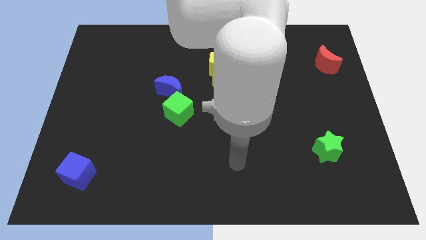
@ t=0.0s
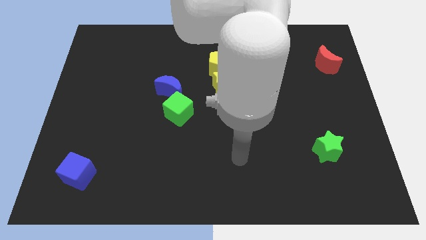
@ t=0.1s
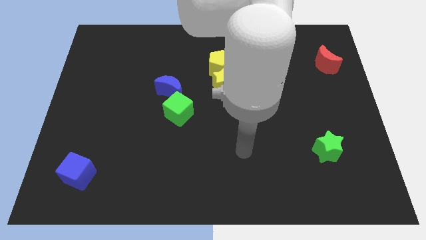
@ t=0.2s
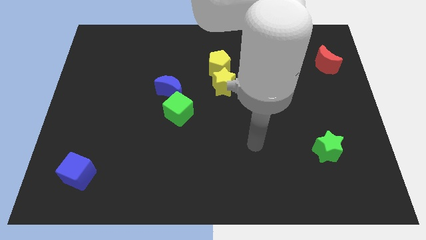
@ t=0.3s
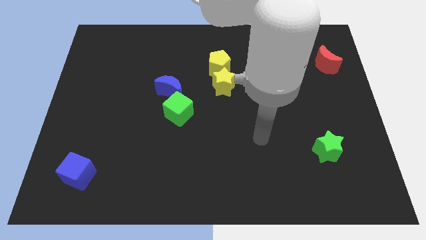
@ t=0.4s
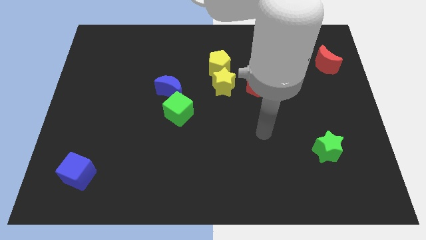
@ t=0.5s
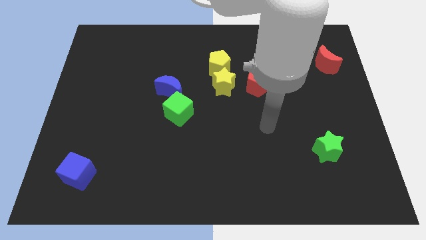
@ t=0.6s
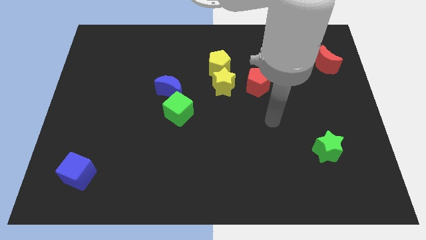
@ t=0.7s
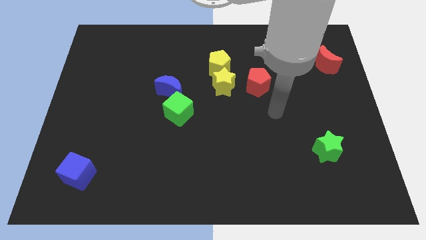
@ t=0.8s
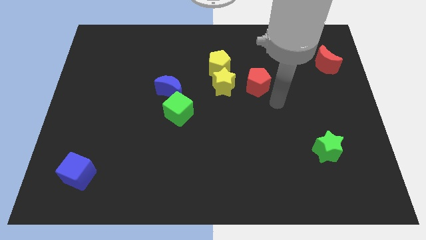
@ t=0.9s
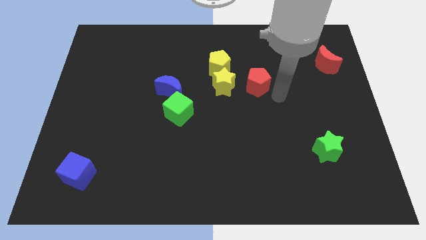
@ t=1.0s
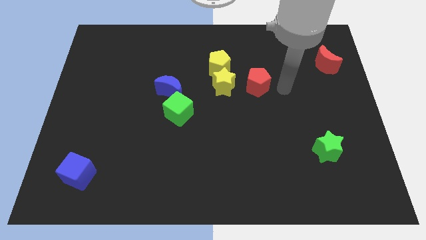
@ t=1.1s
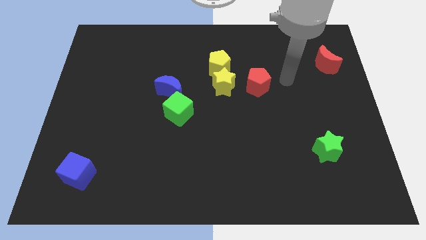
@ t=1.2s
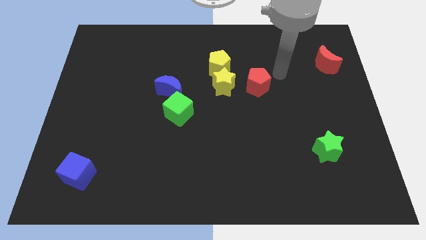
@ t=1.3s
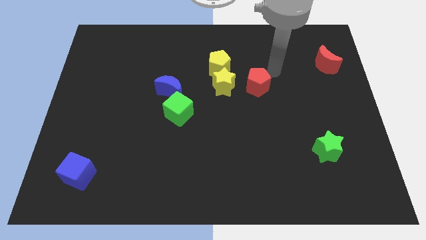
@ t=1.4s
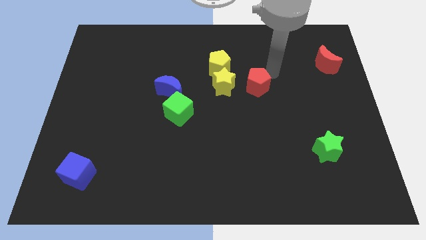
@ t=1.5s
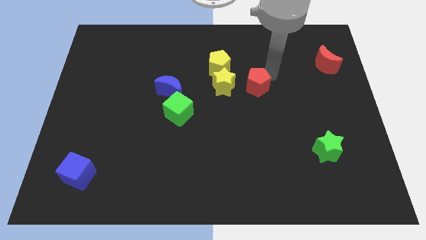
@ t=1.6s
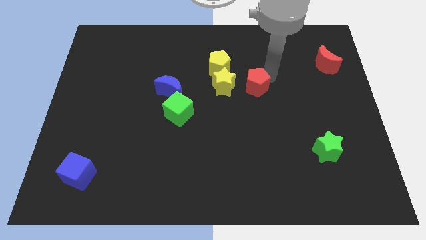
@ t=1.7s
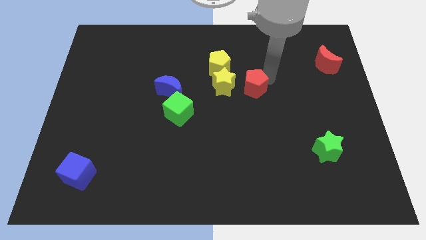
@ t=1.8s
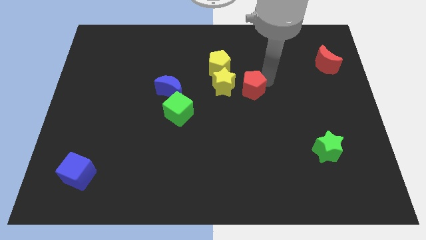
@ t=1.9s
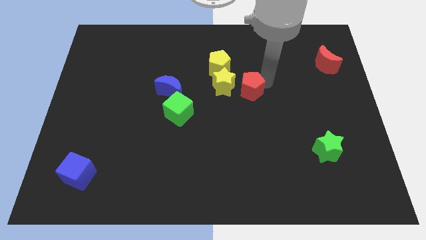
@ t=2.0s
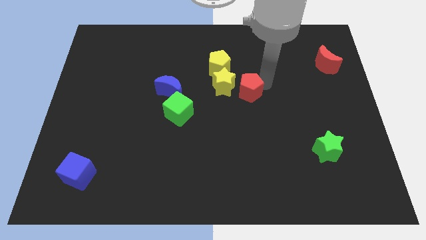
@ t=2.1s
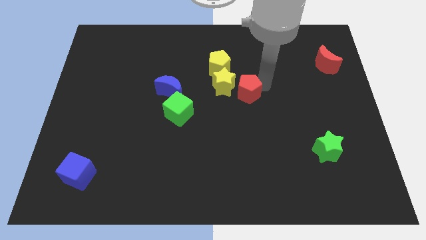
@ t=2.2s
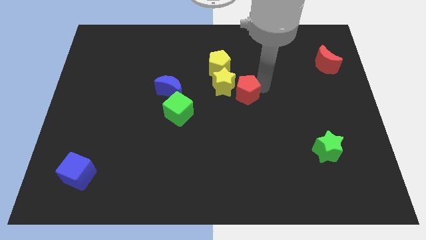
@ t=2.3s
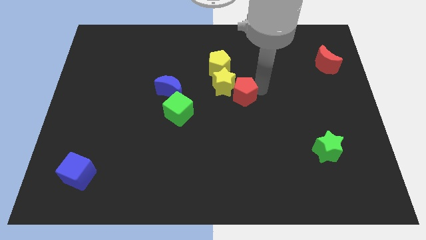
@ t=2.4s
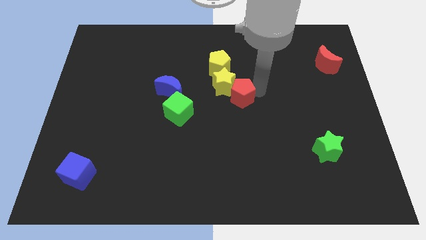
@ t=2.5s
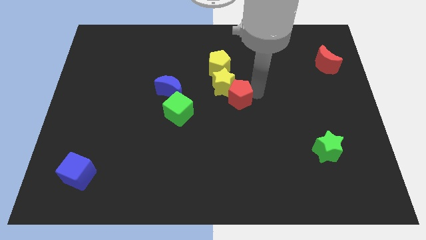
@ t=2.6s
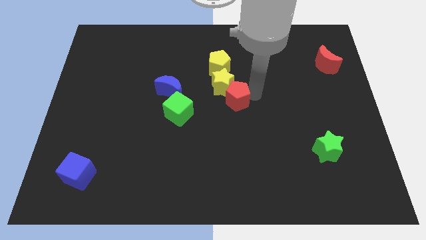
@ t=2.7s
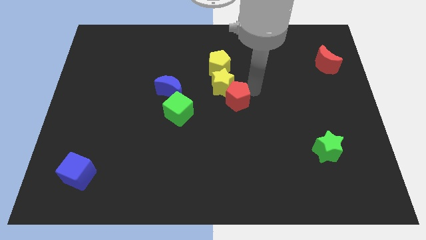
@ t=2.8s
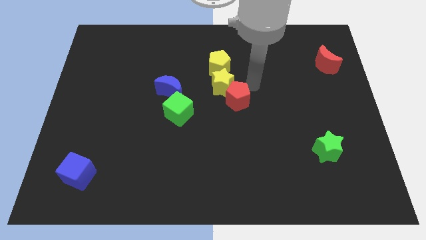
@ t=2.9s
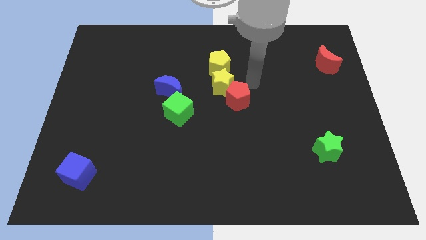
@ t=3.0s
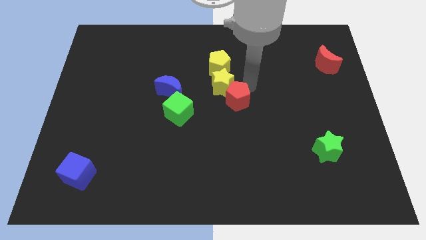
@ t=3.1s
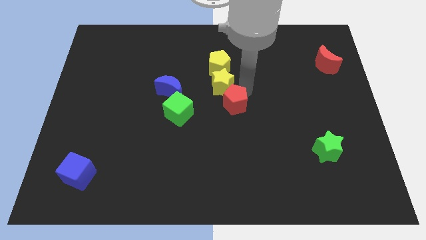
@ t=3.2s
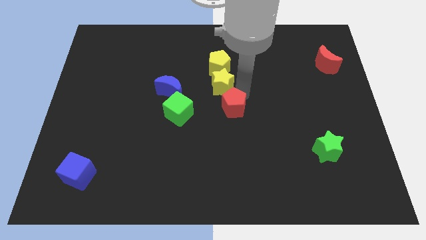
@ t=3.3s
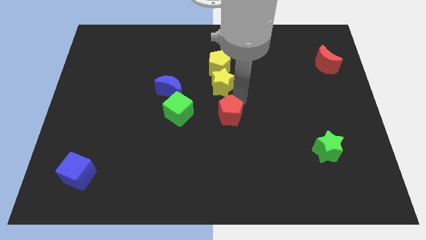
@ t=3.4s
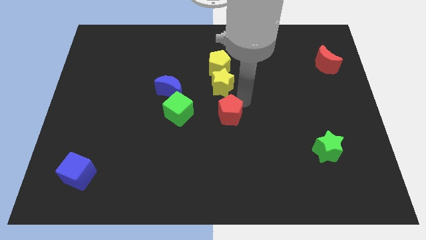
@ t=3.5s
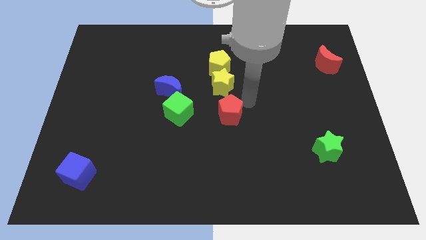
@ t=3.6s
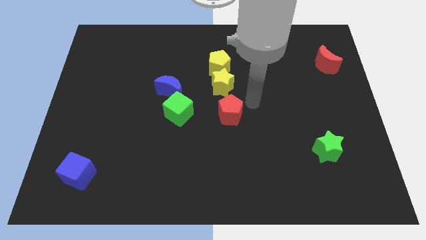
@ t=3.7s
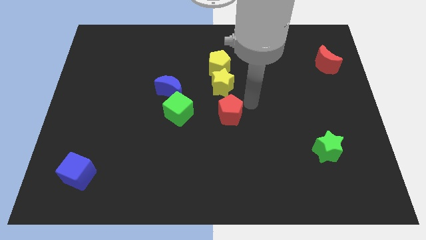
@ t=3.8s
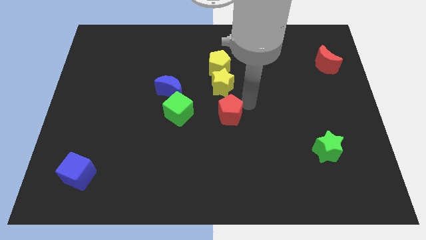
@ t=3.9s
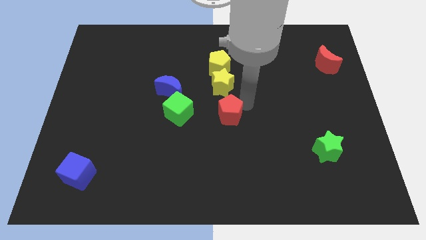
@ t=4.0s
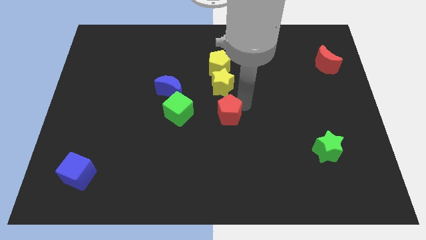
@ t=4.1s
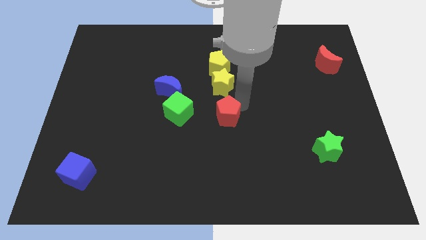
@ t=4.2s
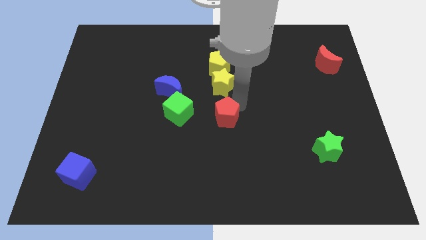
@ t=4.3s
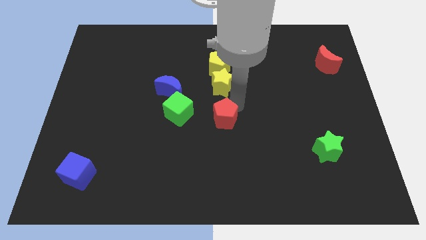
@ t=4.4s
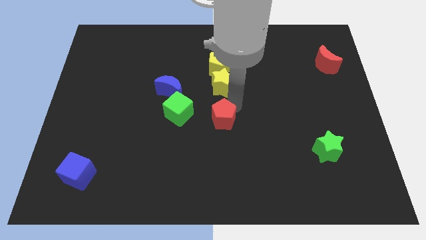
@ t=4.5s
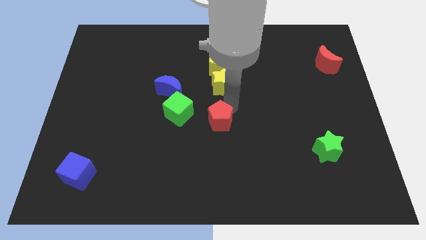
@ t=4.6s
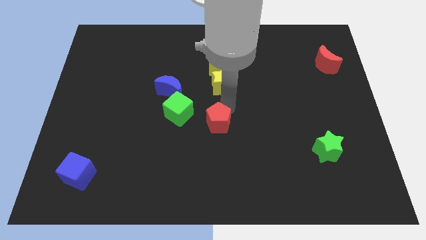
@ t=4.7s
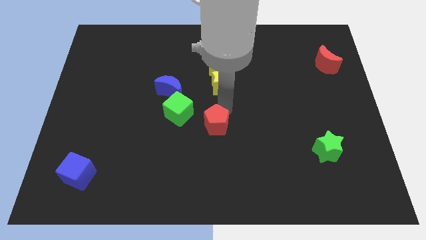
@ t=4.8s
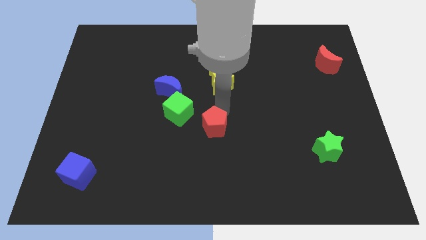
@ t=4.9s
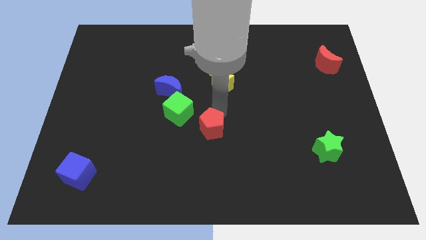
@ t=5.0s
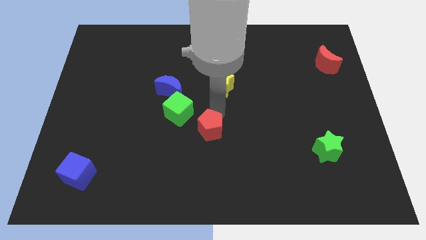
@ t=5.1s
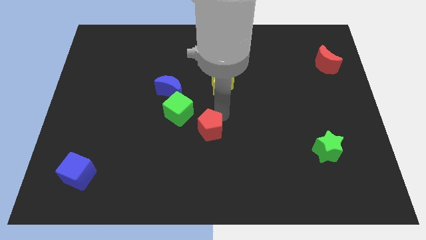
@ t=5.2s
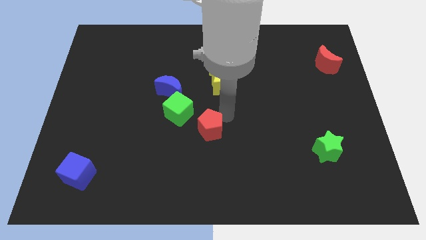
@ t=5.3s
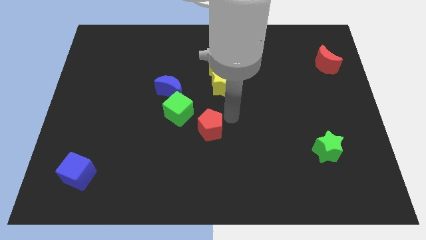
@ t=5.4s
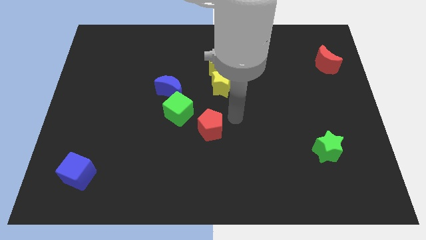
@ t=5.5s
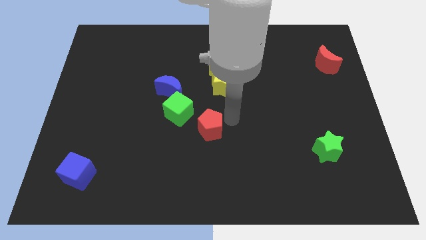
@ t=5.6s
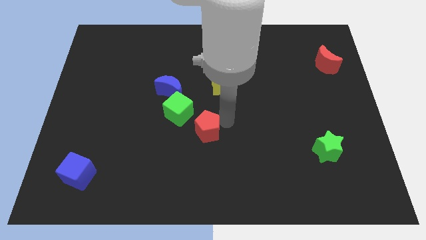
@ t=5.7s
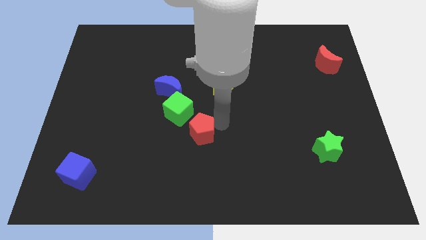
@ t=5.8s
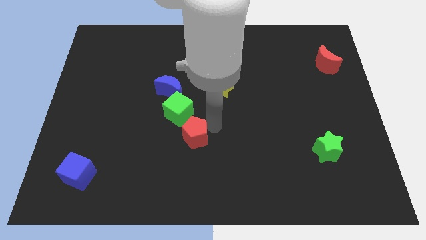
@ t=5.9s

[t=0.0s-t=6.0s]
push the red pentagon down and left diagonally

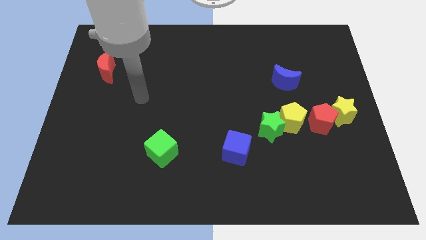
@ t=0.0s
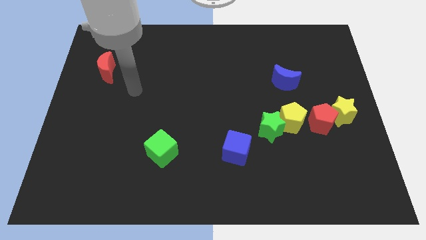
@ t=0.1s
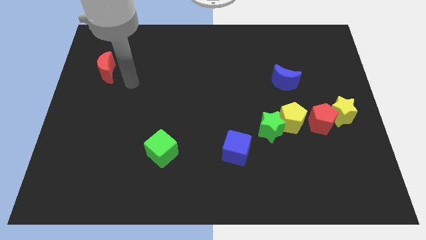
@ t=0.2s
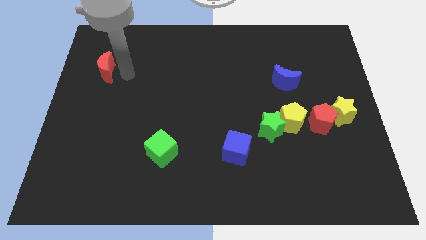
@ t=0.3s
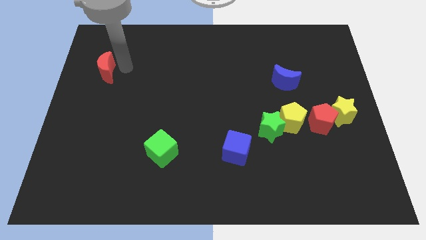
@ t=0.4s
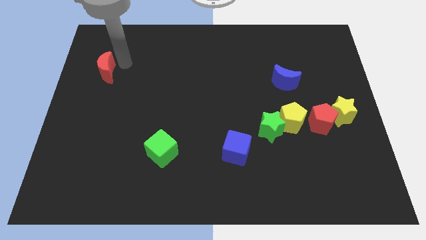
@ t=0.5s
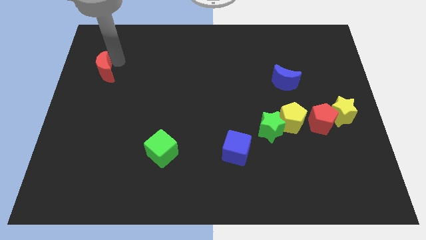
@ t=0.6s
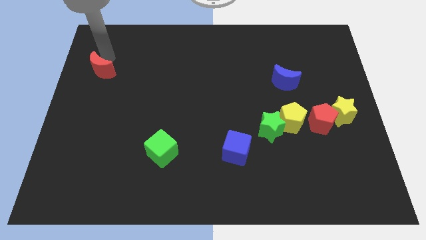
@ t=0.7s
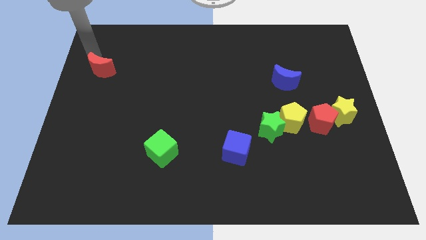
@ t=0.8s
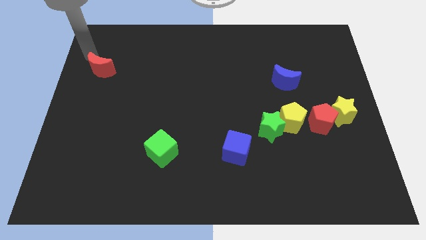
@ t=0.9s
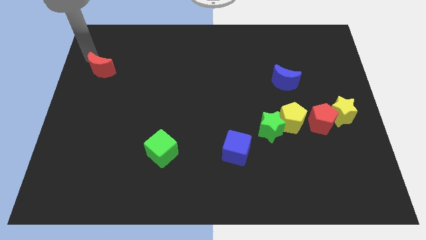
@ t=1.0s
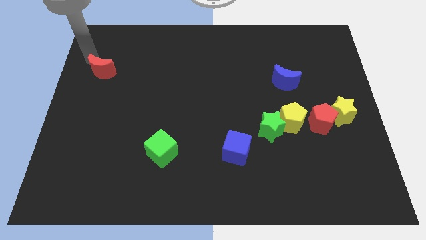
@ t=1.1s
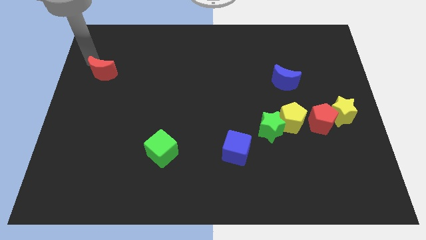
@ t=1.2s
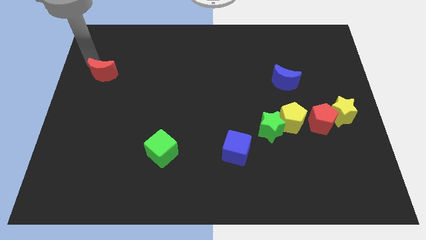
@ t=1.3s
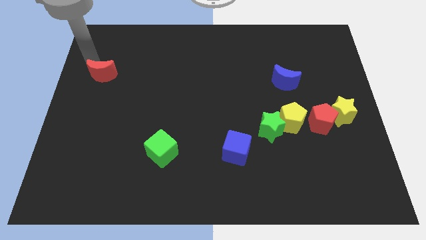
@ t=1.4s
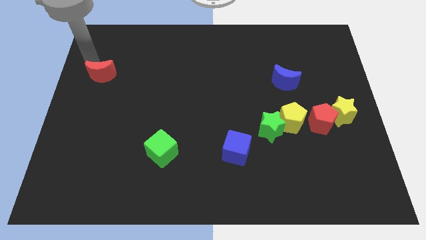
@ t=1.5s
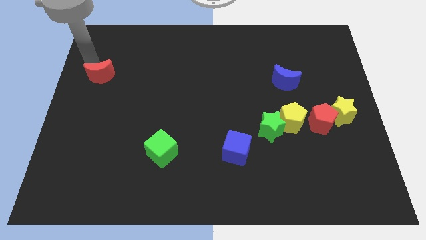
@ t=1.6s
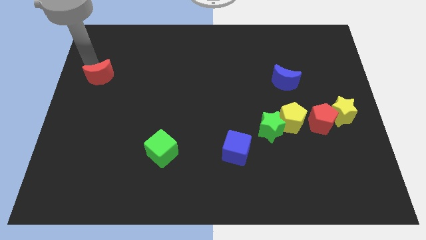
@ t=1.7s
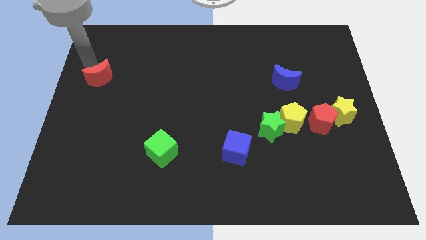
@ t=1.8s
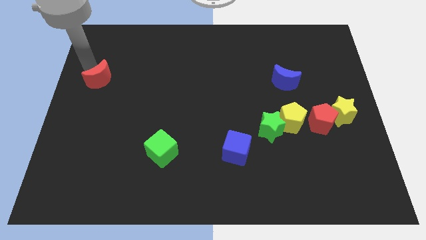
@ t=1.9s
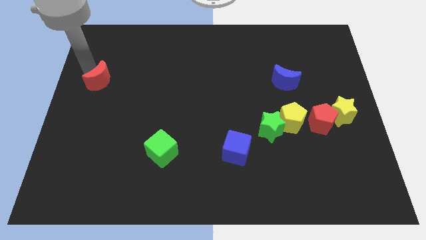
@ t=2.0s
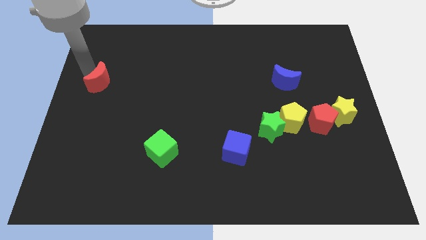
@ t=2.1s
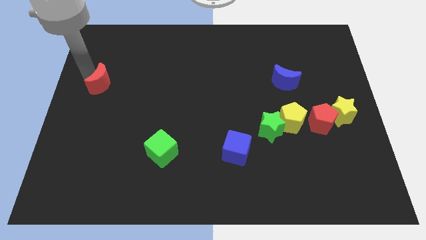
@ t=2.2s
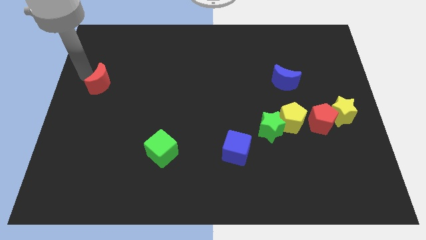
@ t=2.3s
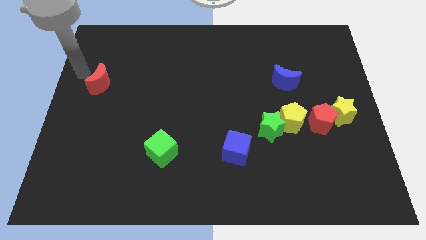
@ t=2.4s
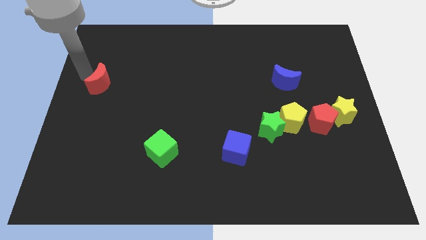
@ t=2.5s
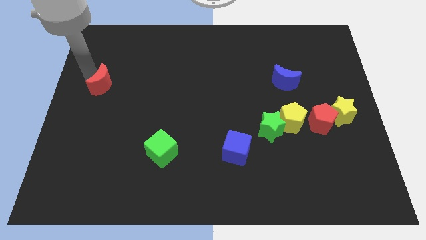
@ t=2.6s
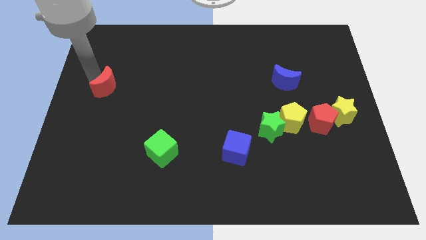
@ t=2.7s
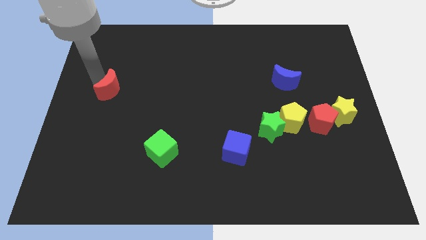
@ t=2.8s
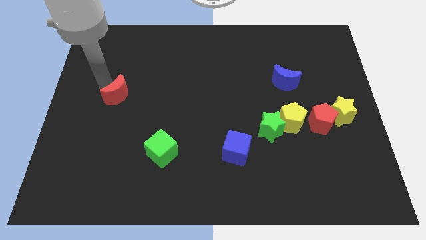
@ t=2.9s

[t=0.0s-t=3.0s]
slightly slide the red moon down and right
